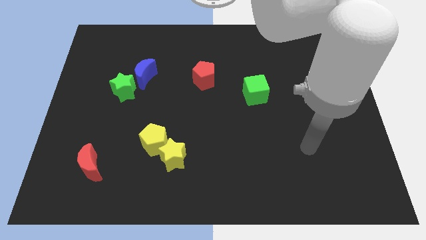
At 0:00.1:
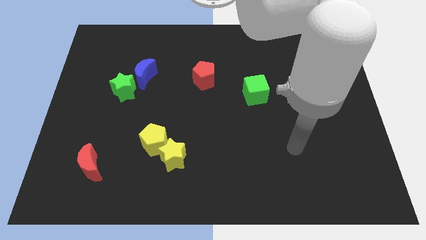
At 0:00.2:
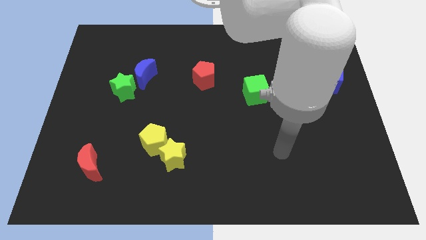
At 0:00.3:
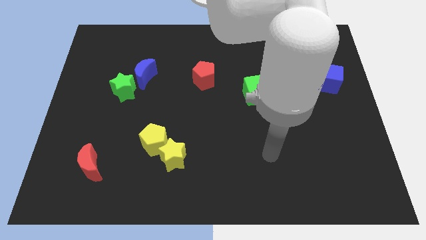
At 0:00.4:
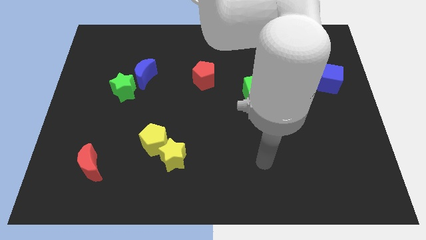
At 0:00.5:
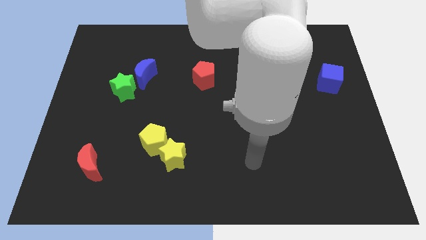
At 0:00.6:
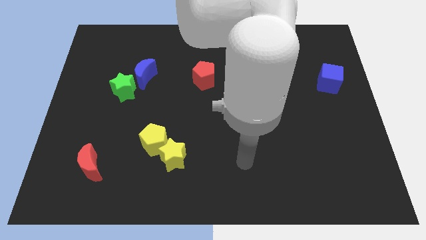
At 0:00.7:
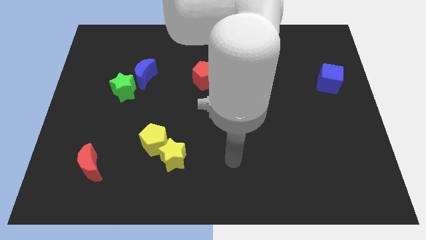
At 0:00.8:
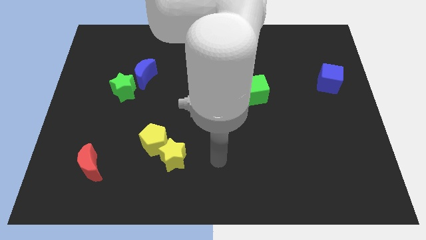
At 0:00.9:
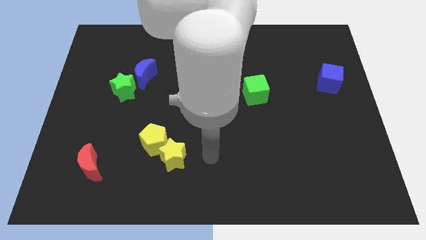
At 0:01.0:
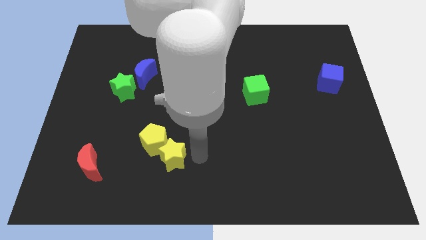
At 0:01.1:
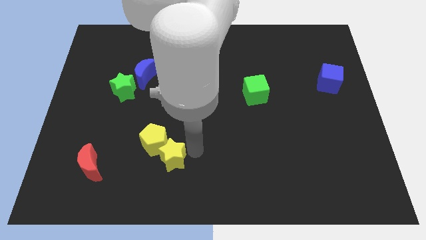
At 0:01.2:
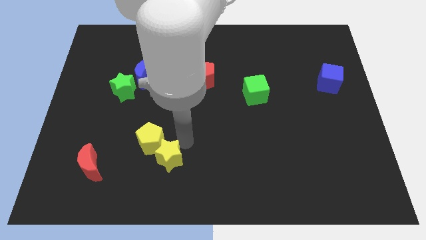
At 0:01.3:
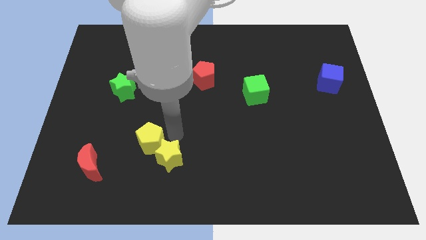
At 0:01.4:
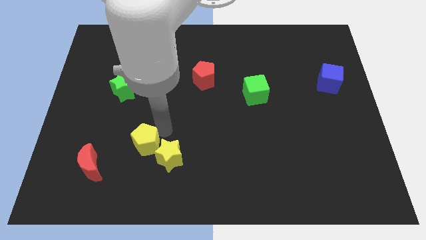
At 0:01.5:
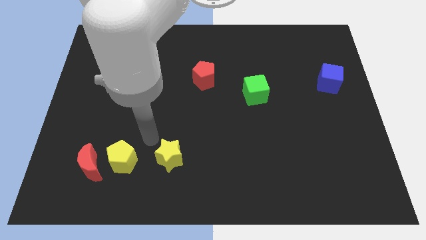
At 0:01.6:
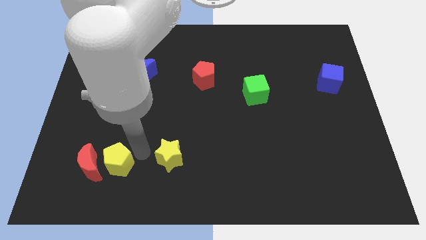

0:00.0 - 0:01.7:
pull the yellow star apart from the yellow pentagon

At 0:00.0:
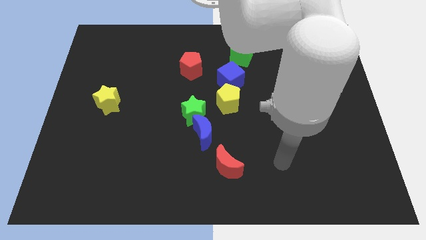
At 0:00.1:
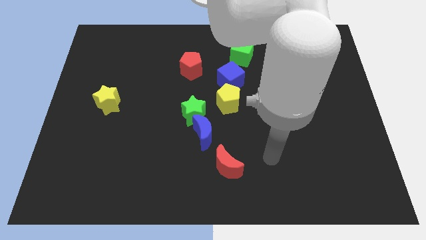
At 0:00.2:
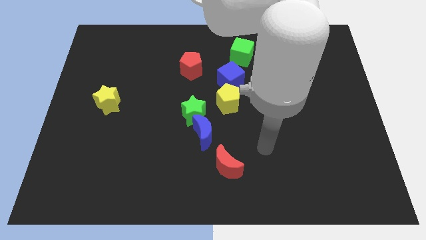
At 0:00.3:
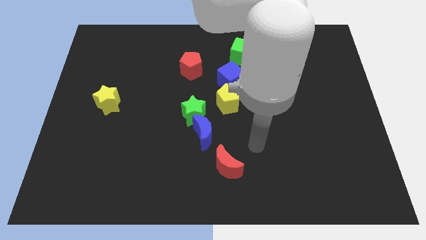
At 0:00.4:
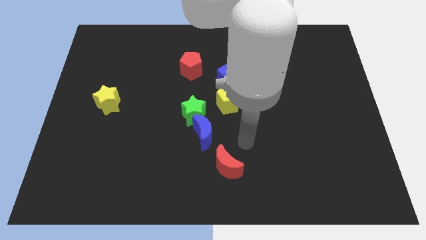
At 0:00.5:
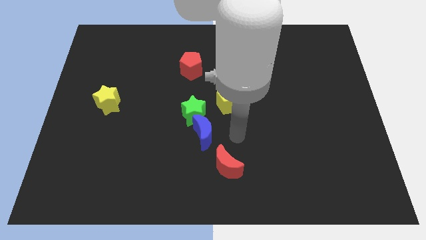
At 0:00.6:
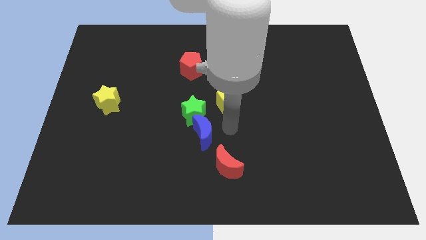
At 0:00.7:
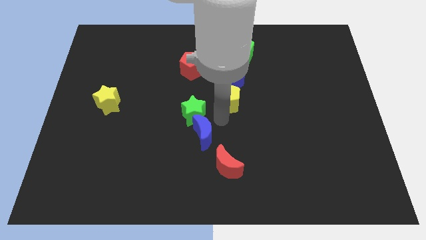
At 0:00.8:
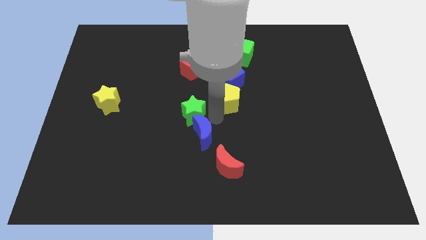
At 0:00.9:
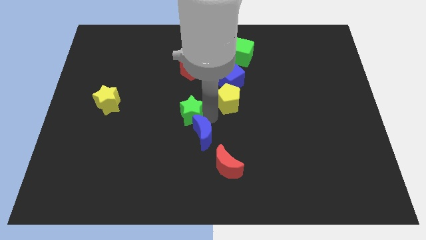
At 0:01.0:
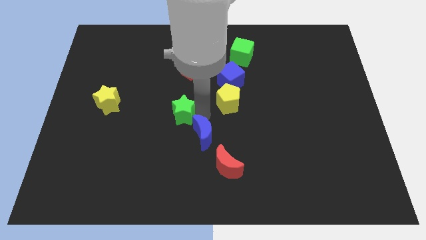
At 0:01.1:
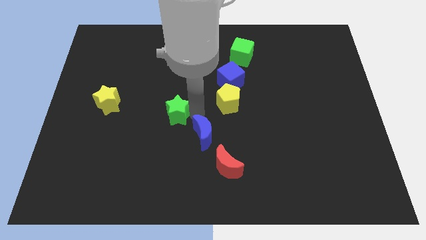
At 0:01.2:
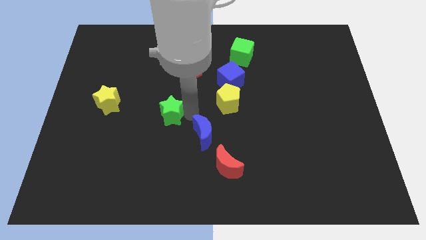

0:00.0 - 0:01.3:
pull the green star apart from the blue moon and yellow pentagon

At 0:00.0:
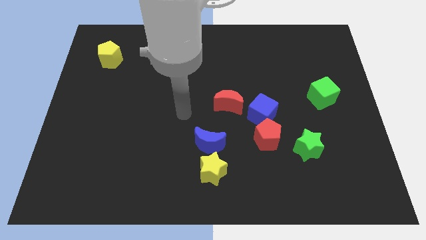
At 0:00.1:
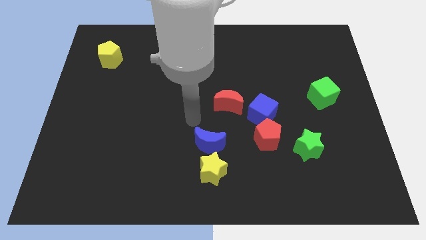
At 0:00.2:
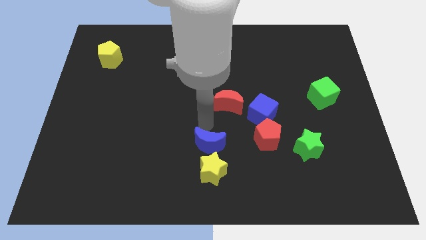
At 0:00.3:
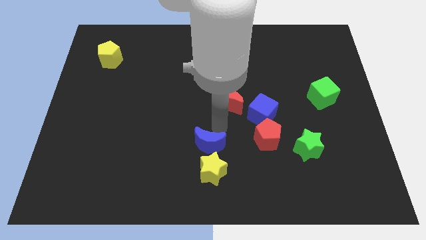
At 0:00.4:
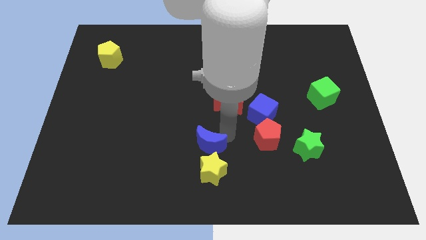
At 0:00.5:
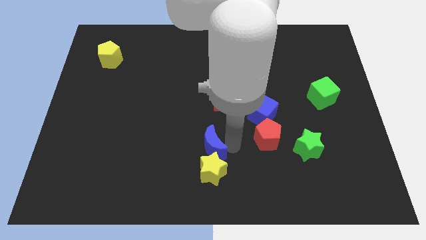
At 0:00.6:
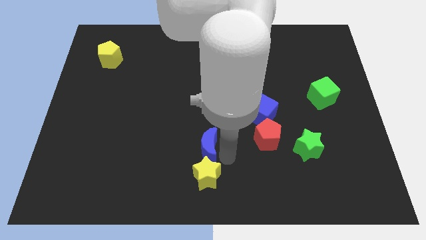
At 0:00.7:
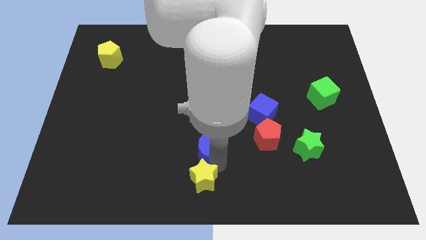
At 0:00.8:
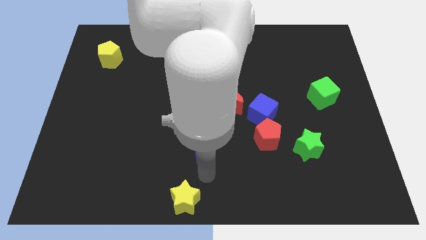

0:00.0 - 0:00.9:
pull the blue moon apart from the yellow star

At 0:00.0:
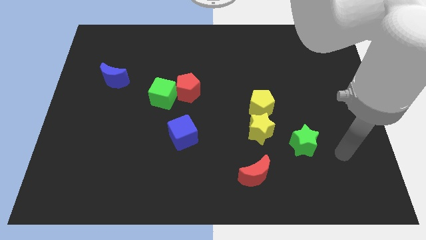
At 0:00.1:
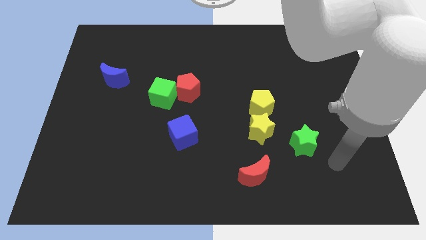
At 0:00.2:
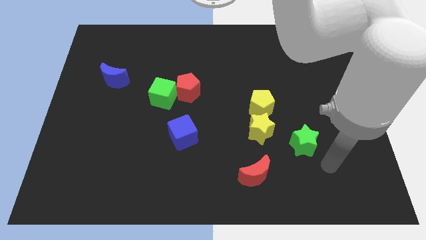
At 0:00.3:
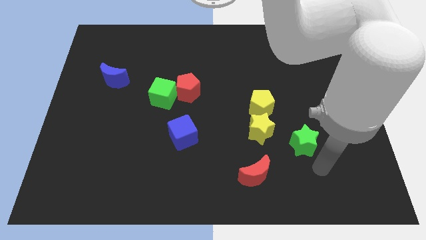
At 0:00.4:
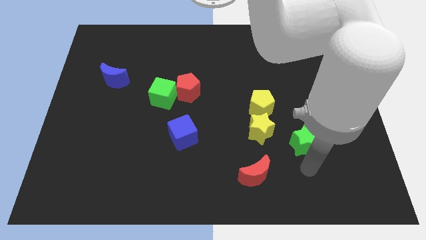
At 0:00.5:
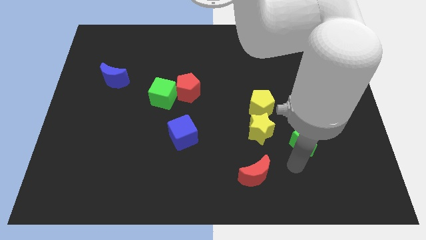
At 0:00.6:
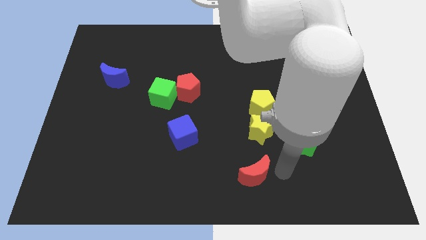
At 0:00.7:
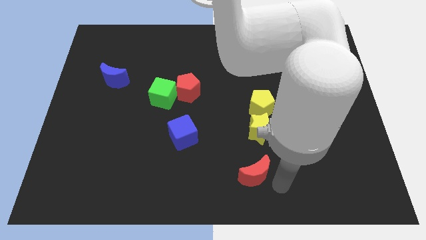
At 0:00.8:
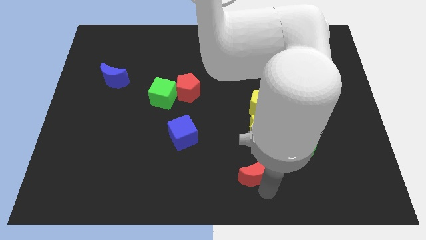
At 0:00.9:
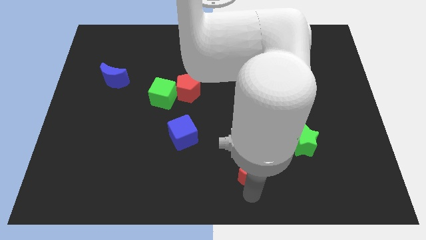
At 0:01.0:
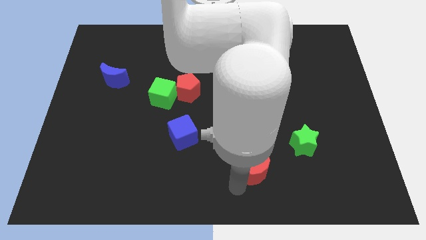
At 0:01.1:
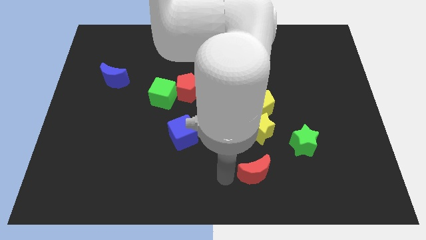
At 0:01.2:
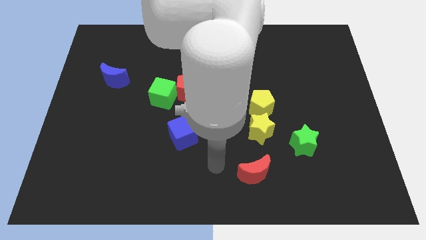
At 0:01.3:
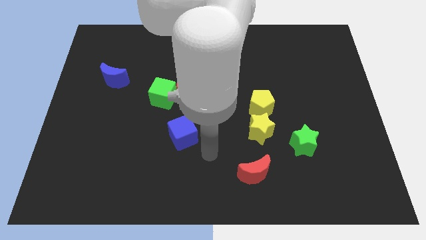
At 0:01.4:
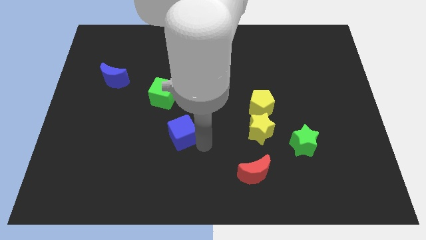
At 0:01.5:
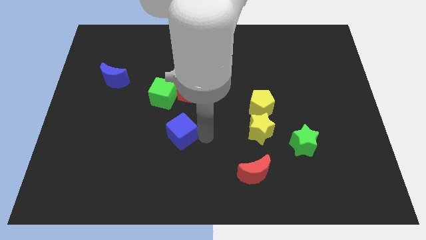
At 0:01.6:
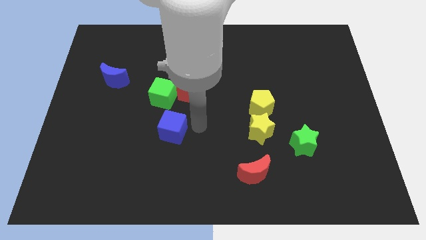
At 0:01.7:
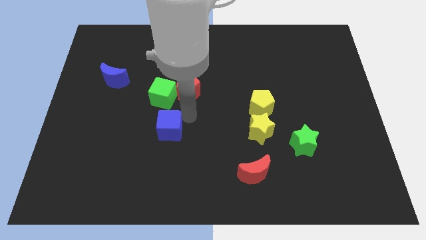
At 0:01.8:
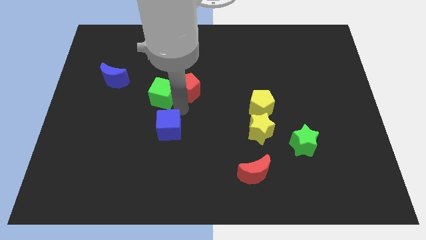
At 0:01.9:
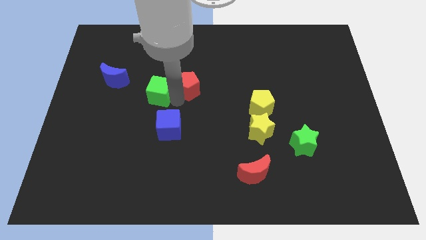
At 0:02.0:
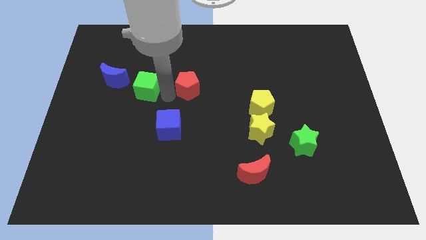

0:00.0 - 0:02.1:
move the red pentagon away from the green cube

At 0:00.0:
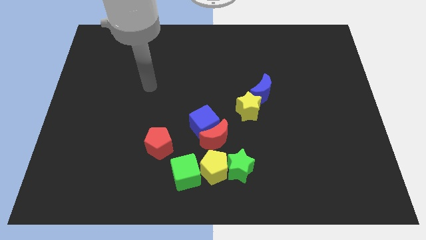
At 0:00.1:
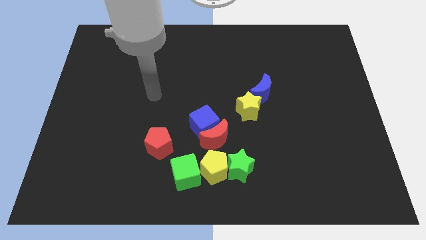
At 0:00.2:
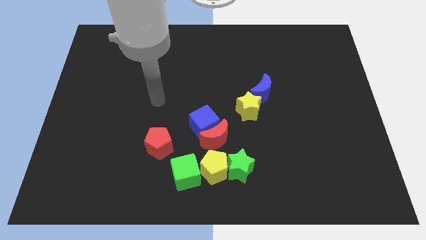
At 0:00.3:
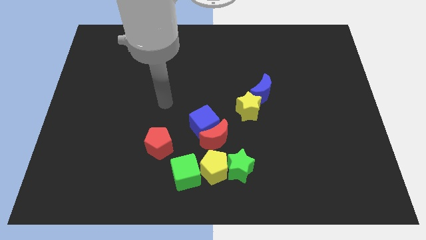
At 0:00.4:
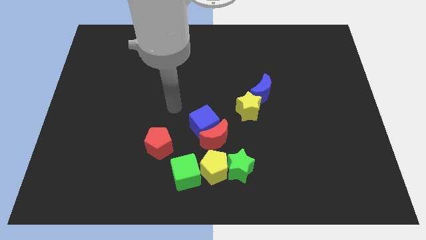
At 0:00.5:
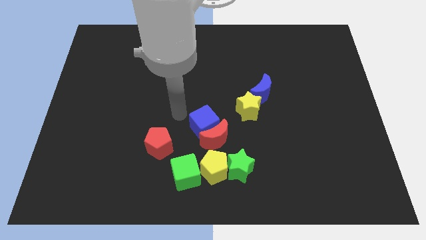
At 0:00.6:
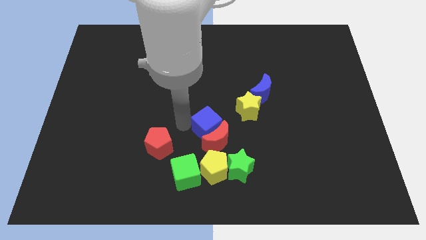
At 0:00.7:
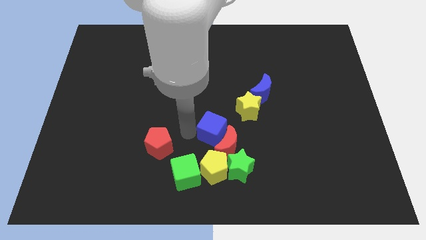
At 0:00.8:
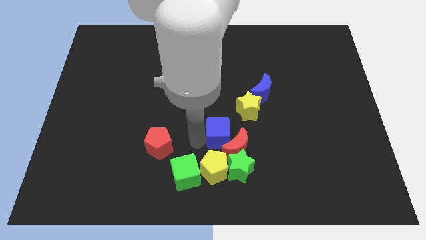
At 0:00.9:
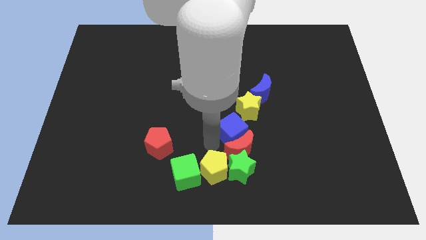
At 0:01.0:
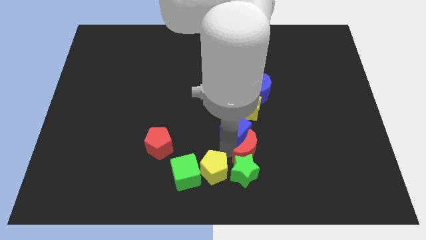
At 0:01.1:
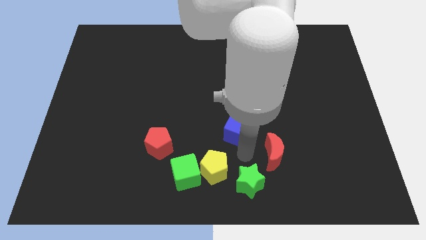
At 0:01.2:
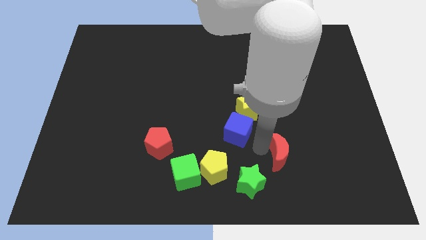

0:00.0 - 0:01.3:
separate the blue cube from the red moon

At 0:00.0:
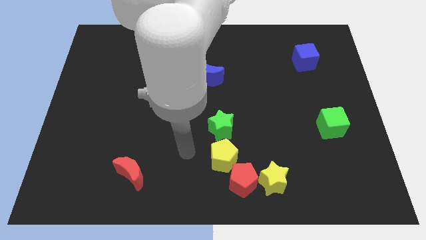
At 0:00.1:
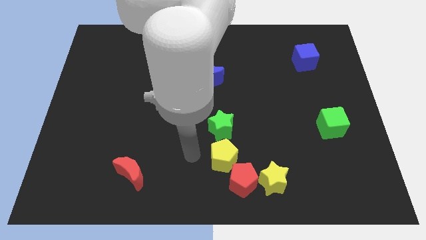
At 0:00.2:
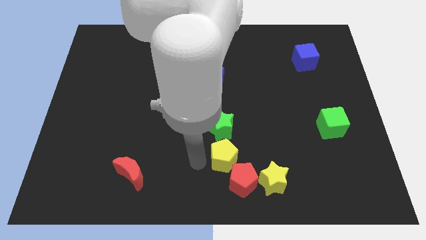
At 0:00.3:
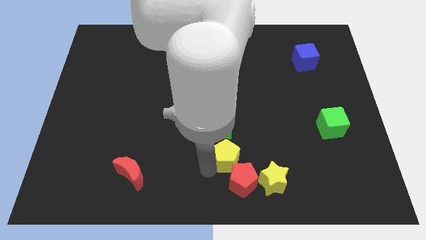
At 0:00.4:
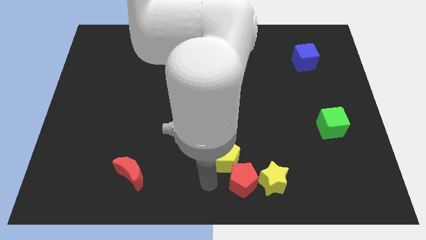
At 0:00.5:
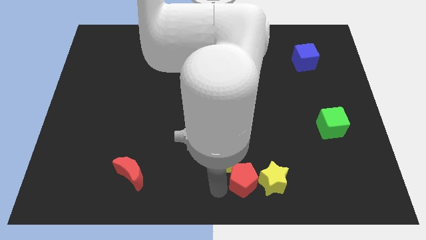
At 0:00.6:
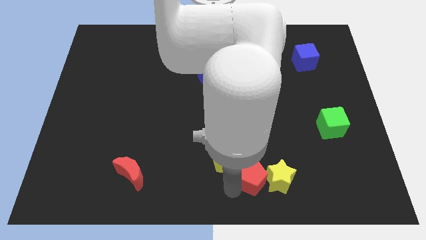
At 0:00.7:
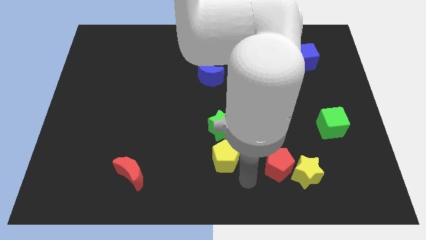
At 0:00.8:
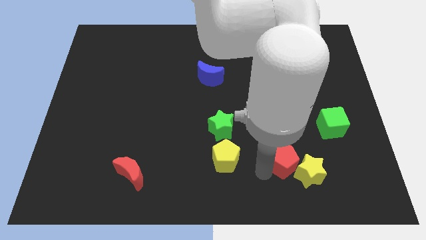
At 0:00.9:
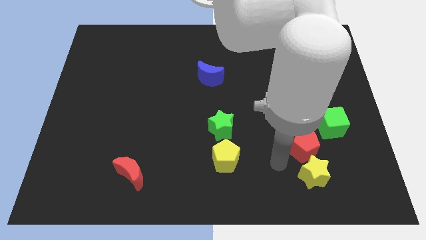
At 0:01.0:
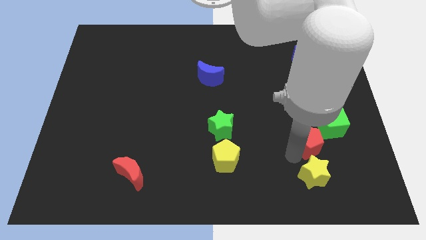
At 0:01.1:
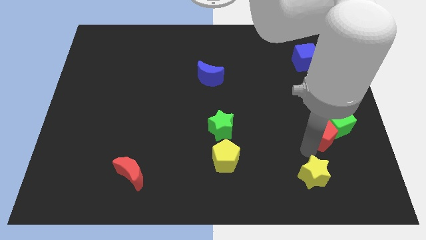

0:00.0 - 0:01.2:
move the yellow star away from the red pentagon

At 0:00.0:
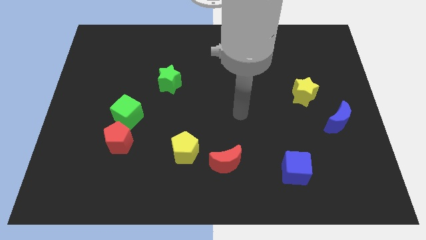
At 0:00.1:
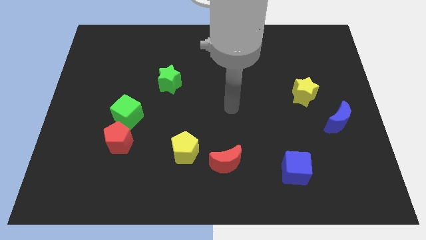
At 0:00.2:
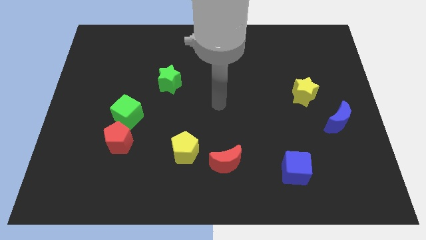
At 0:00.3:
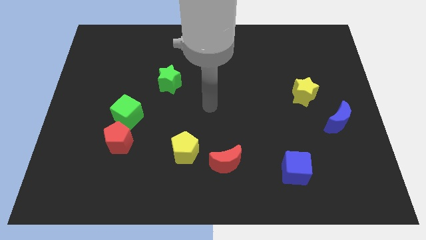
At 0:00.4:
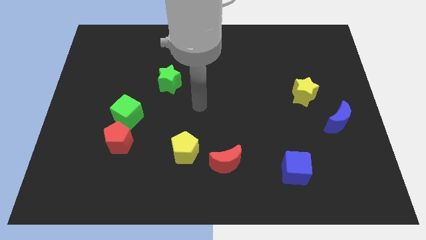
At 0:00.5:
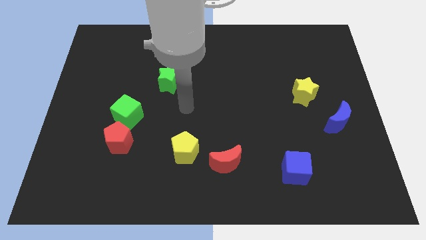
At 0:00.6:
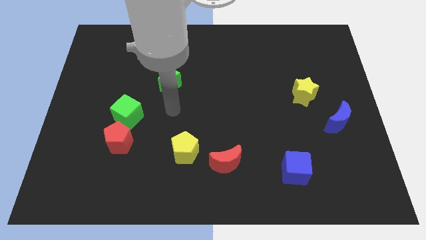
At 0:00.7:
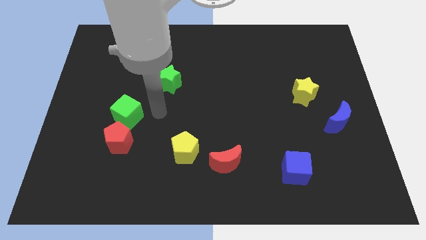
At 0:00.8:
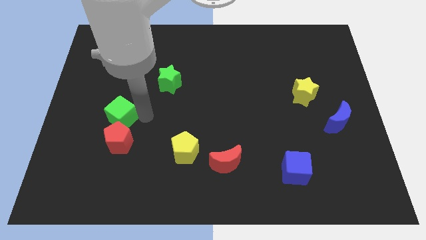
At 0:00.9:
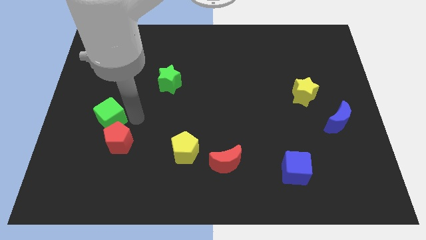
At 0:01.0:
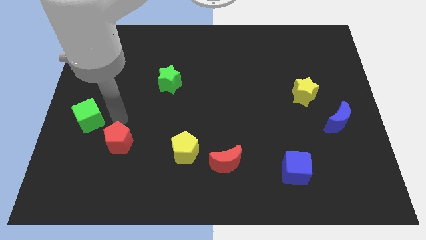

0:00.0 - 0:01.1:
pull the red pentagon apart from the green cube
